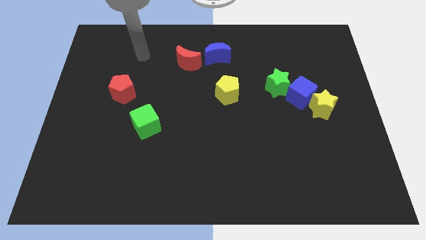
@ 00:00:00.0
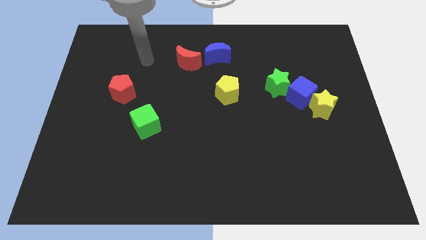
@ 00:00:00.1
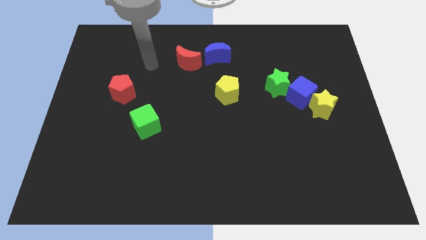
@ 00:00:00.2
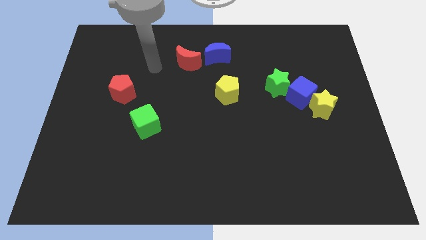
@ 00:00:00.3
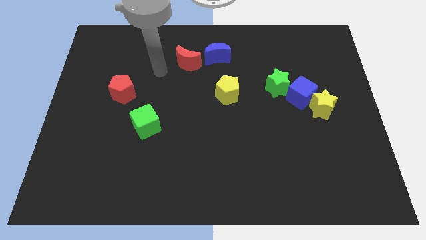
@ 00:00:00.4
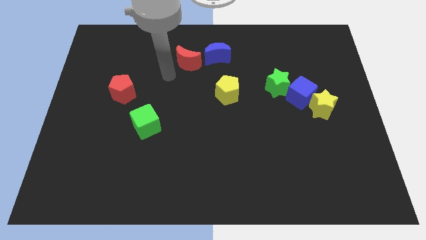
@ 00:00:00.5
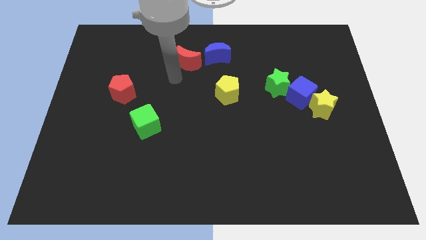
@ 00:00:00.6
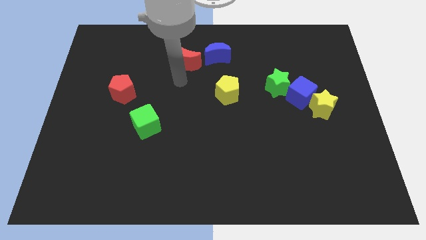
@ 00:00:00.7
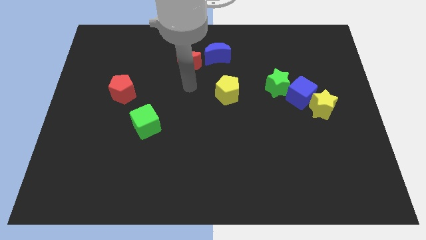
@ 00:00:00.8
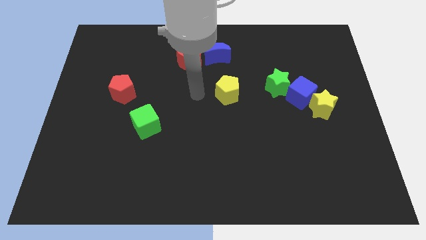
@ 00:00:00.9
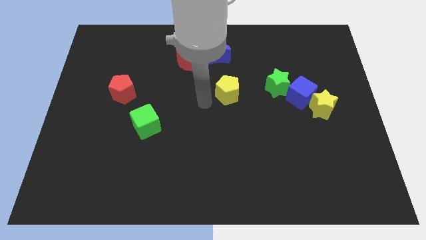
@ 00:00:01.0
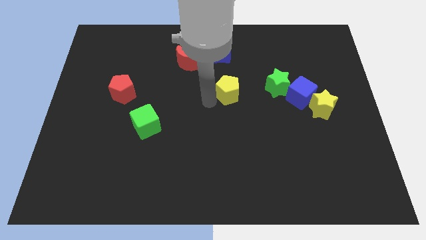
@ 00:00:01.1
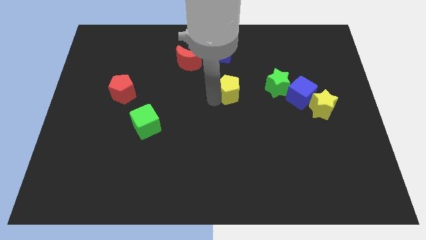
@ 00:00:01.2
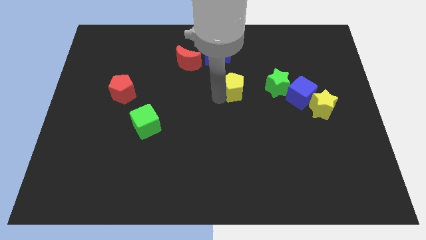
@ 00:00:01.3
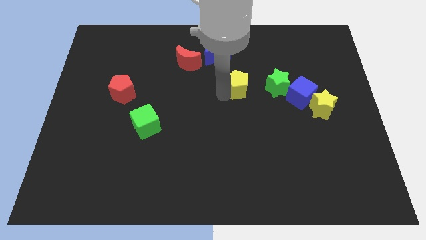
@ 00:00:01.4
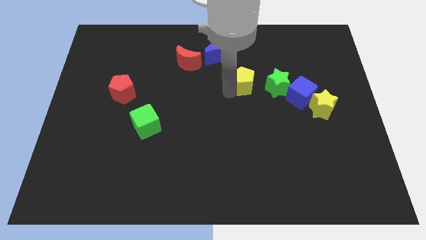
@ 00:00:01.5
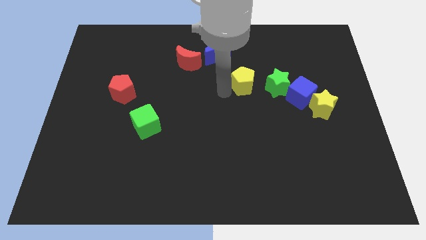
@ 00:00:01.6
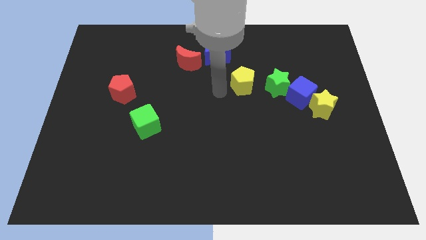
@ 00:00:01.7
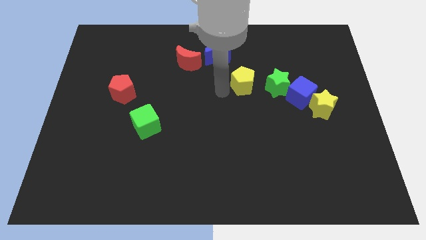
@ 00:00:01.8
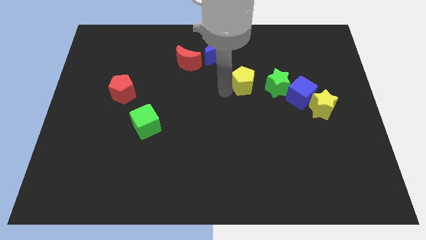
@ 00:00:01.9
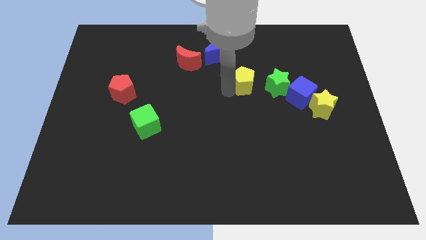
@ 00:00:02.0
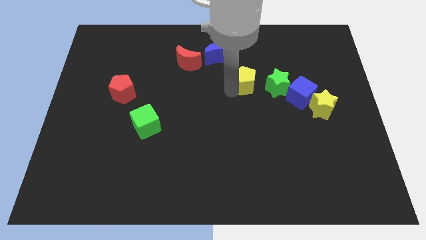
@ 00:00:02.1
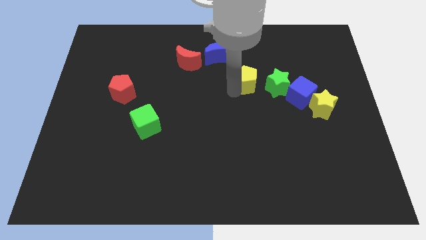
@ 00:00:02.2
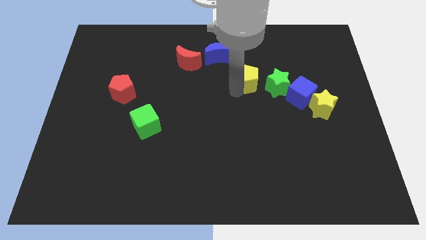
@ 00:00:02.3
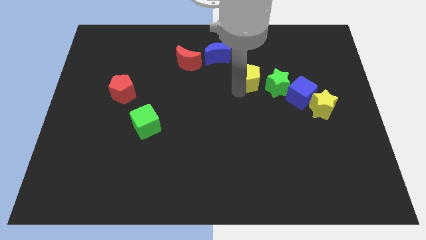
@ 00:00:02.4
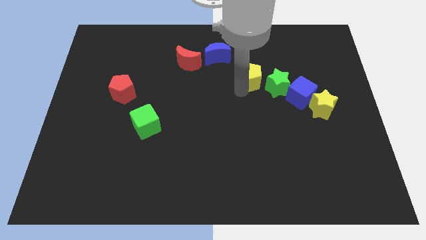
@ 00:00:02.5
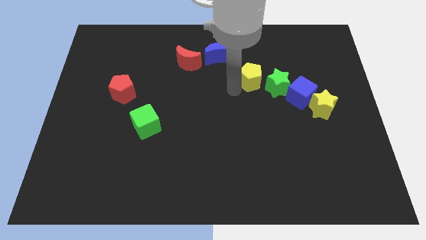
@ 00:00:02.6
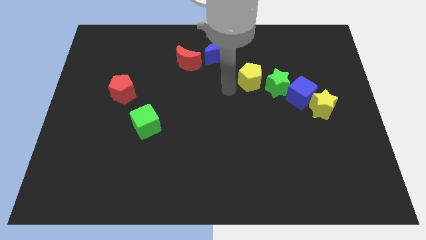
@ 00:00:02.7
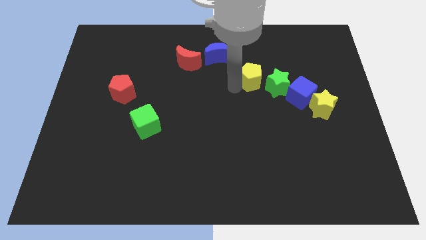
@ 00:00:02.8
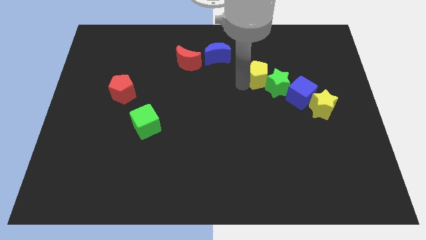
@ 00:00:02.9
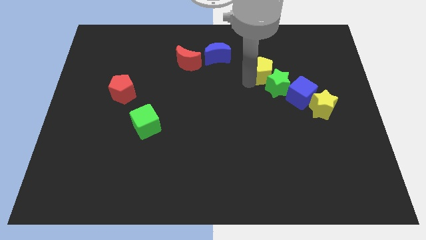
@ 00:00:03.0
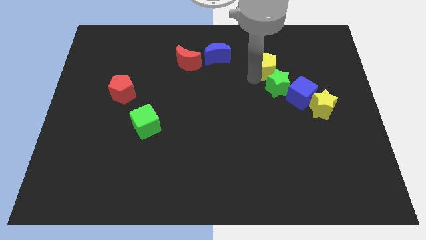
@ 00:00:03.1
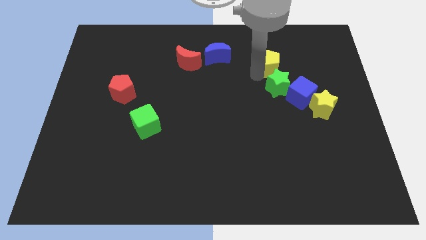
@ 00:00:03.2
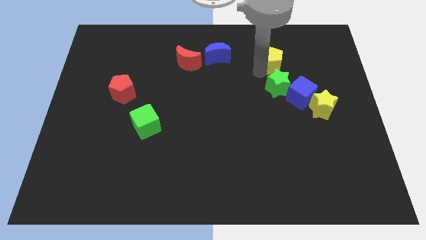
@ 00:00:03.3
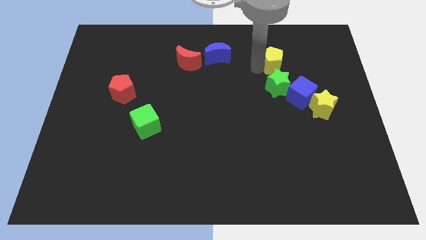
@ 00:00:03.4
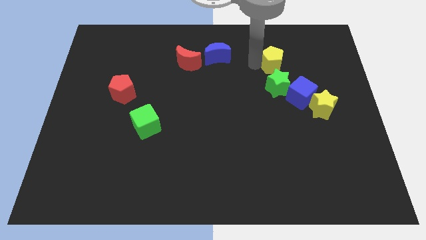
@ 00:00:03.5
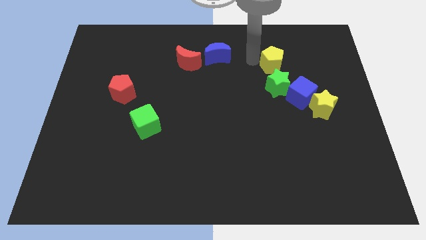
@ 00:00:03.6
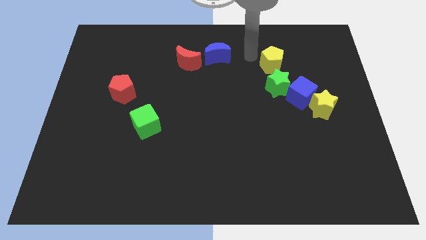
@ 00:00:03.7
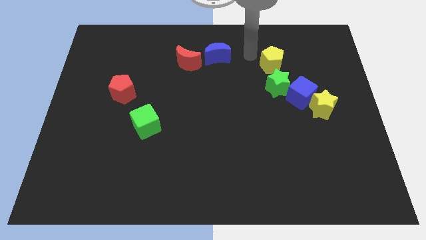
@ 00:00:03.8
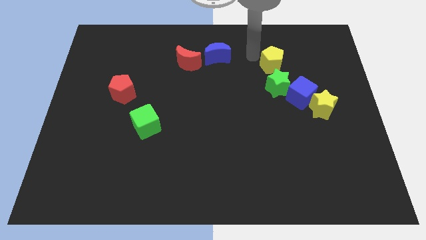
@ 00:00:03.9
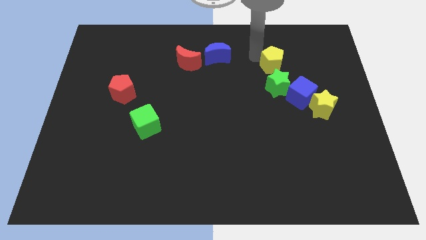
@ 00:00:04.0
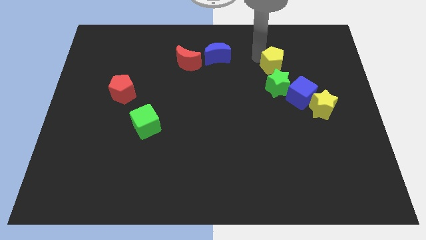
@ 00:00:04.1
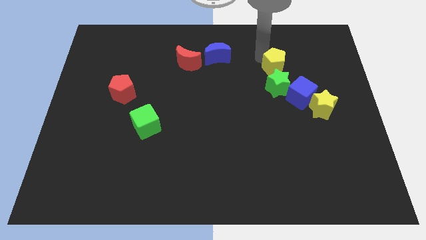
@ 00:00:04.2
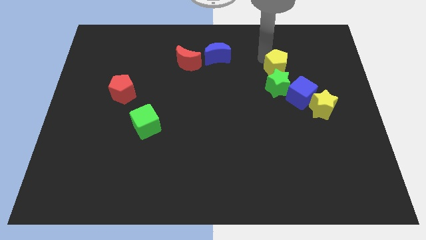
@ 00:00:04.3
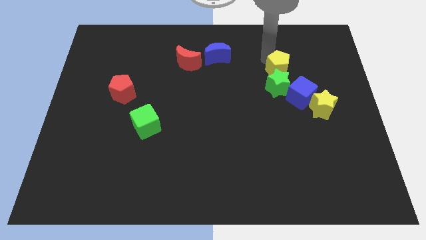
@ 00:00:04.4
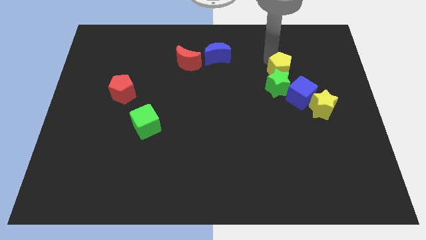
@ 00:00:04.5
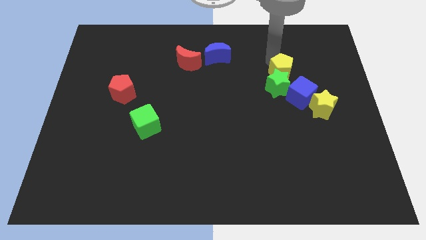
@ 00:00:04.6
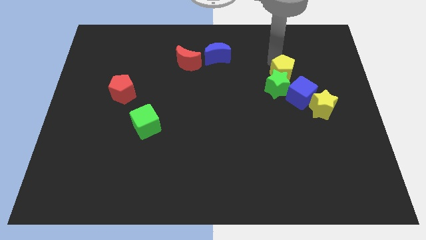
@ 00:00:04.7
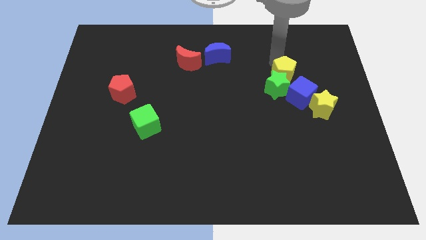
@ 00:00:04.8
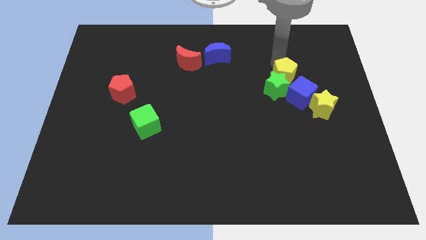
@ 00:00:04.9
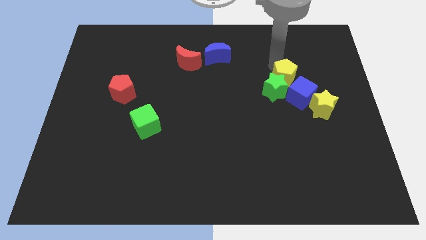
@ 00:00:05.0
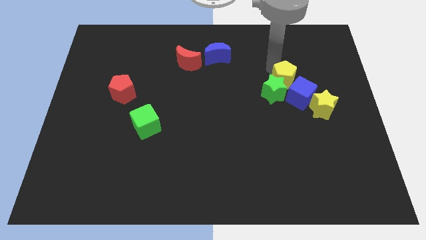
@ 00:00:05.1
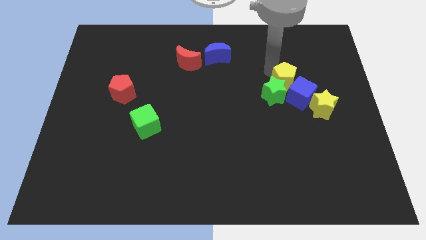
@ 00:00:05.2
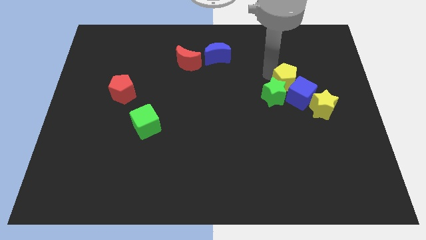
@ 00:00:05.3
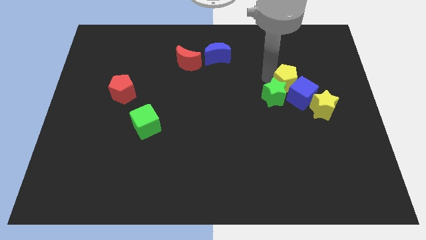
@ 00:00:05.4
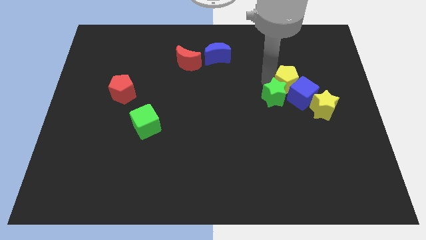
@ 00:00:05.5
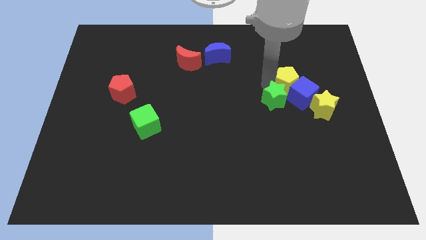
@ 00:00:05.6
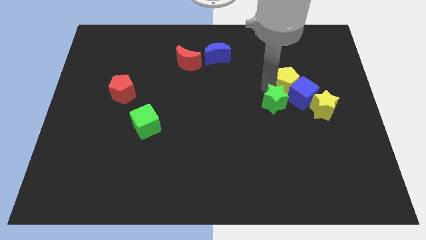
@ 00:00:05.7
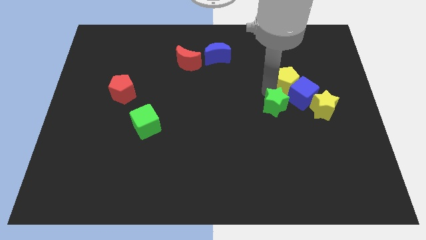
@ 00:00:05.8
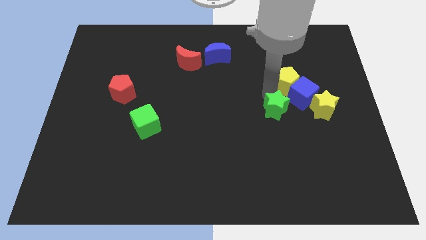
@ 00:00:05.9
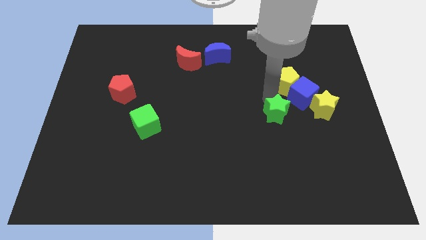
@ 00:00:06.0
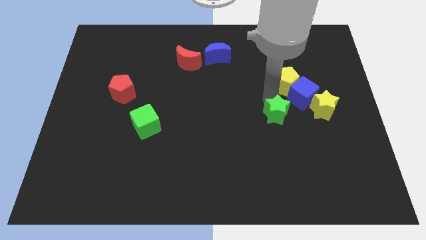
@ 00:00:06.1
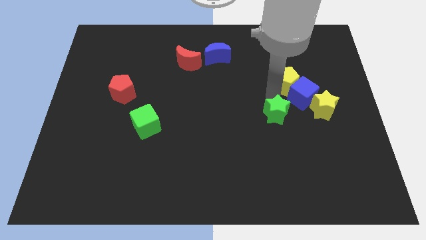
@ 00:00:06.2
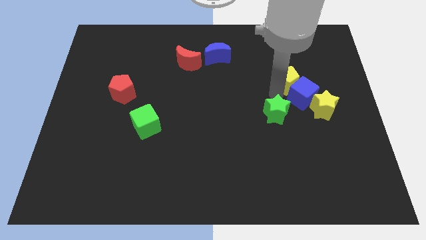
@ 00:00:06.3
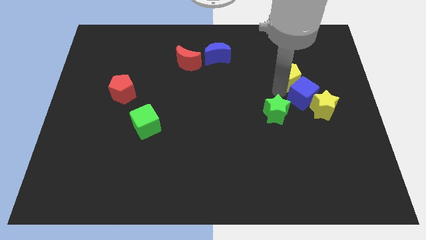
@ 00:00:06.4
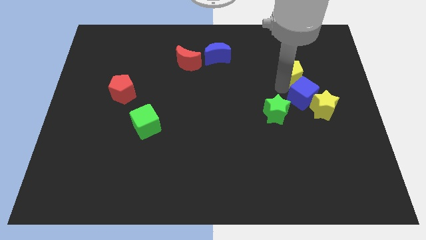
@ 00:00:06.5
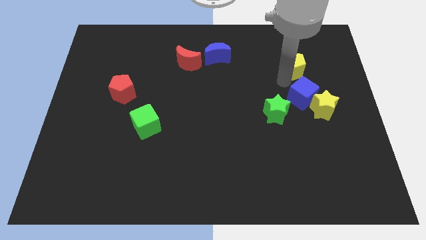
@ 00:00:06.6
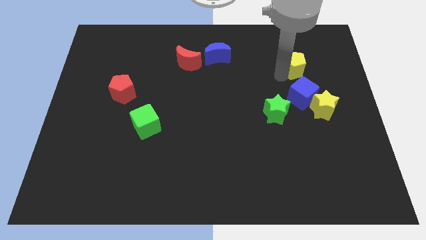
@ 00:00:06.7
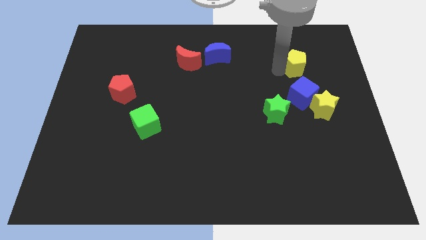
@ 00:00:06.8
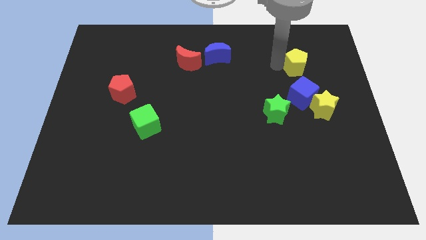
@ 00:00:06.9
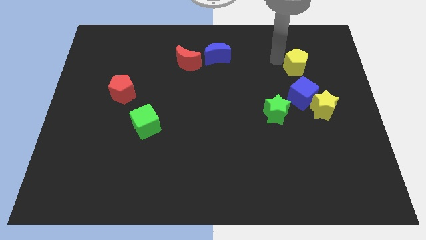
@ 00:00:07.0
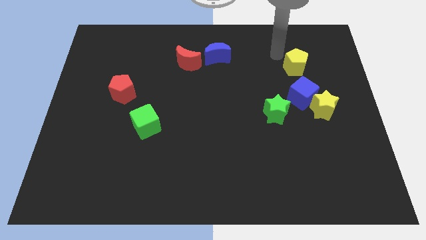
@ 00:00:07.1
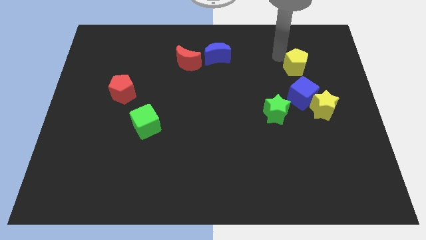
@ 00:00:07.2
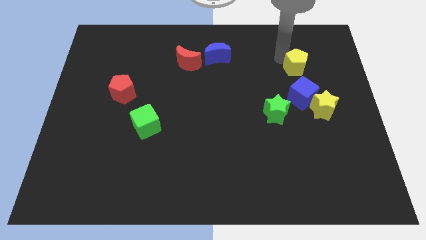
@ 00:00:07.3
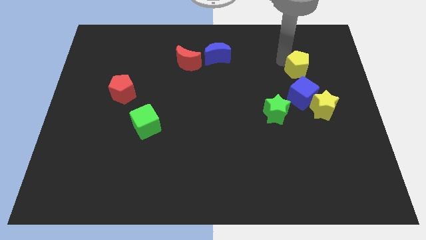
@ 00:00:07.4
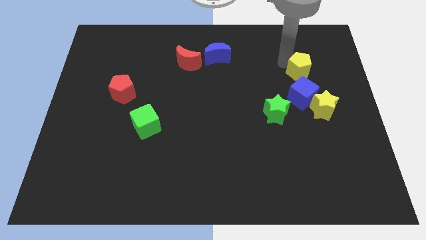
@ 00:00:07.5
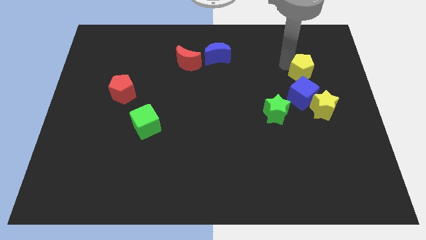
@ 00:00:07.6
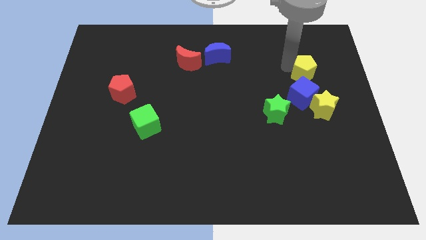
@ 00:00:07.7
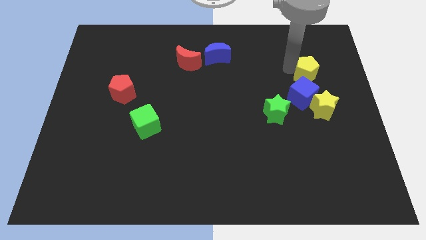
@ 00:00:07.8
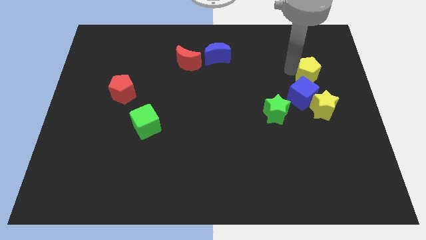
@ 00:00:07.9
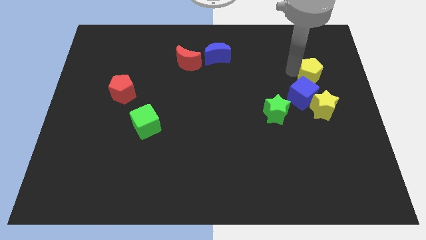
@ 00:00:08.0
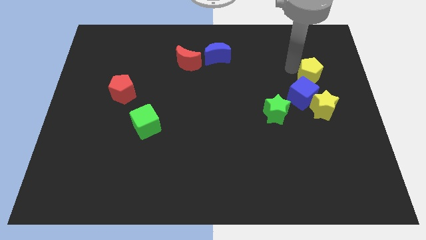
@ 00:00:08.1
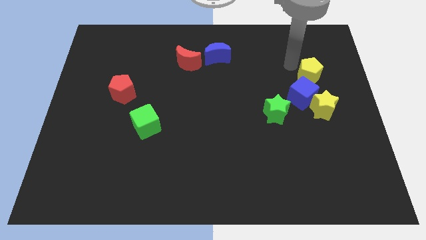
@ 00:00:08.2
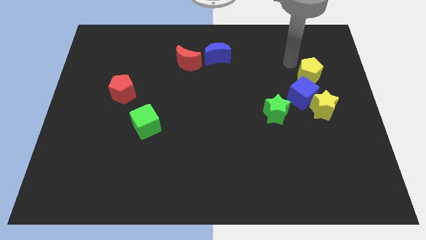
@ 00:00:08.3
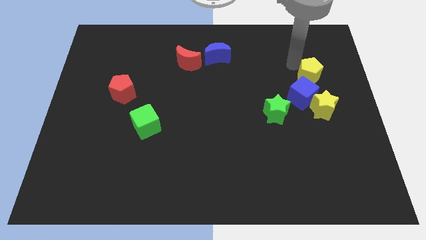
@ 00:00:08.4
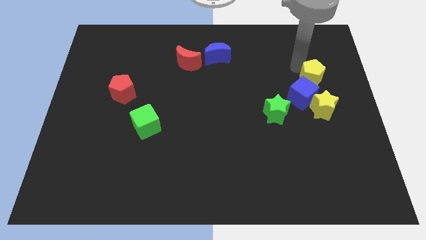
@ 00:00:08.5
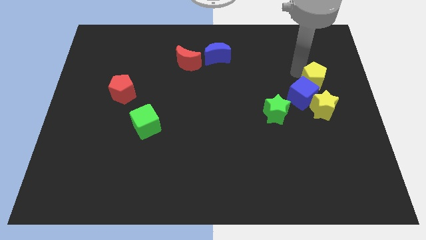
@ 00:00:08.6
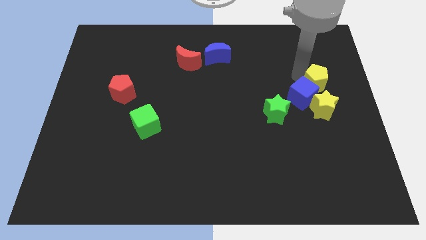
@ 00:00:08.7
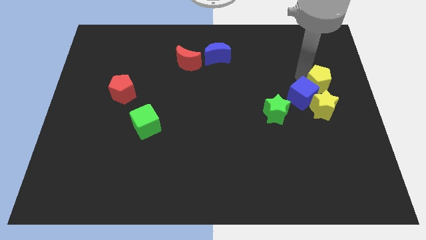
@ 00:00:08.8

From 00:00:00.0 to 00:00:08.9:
put the yellow pentagon to the center right
